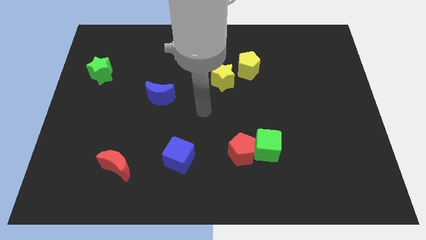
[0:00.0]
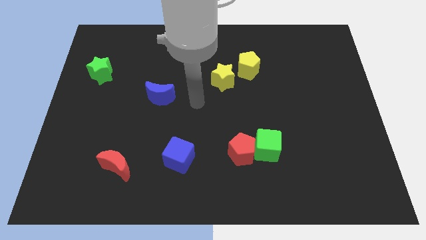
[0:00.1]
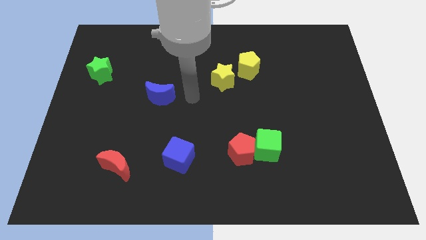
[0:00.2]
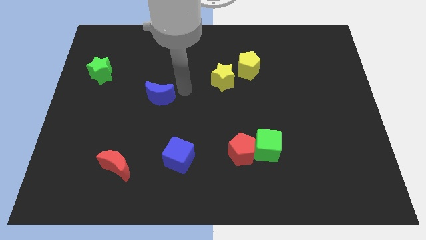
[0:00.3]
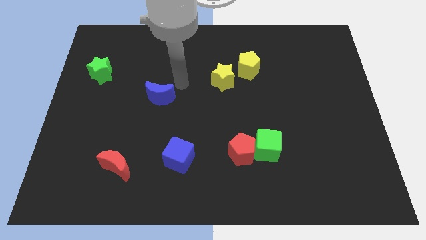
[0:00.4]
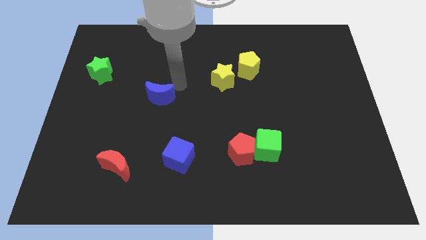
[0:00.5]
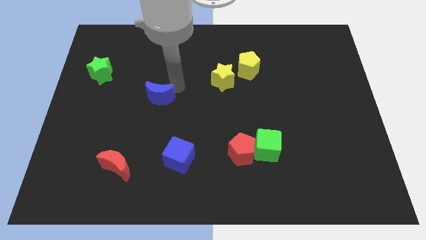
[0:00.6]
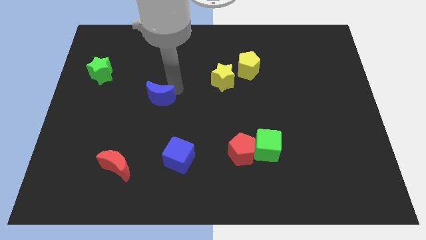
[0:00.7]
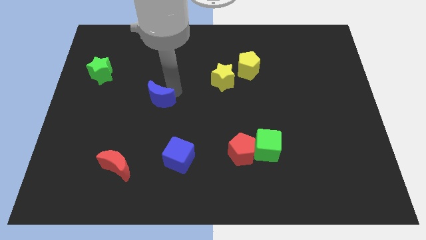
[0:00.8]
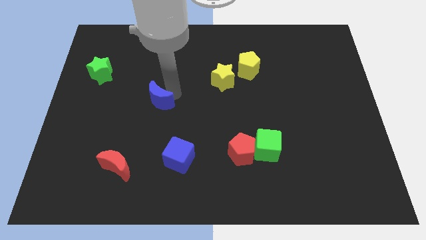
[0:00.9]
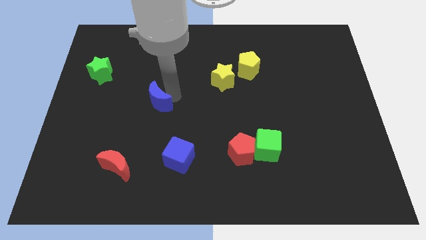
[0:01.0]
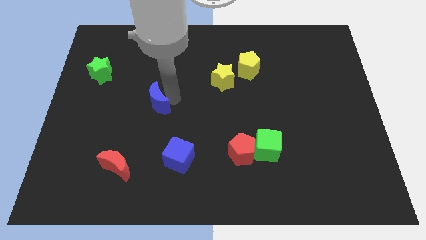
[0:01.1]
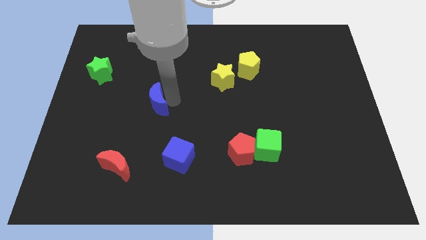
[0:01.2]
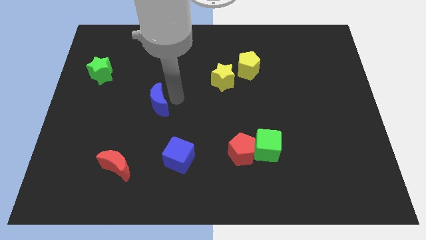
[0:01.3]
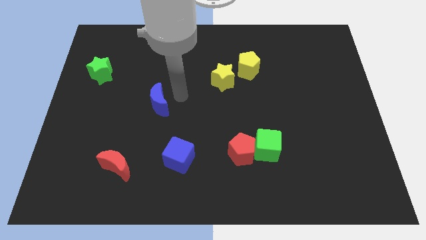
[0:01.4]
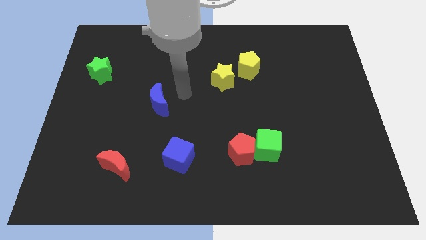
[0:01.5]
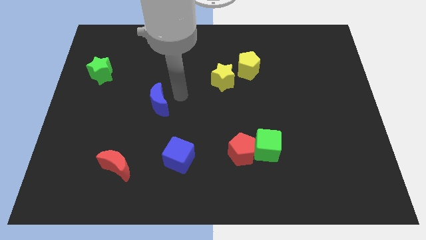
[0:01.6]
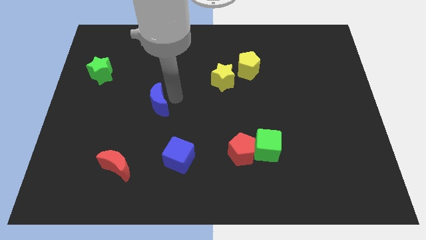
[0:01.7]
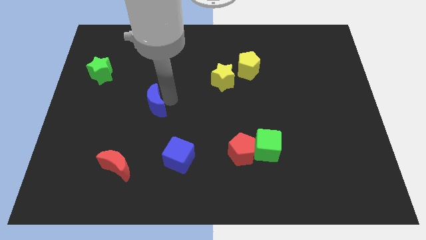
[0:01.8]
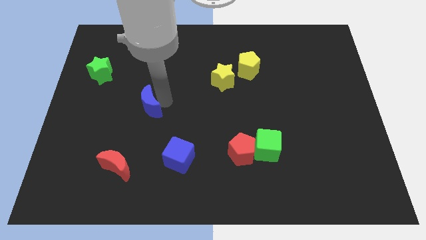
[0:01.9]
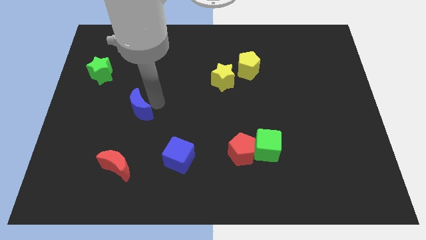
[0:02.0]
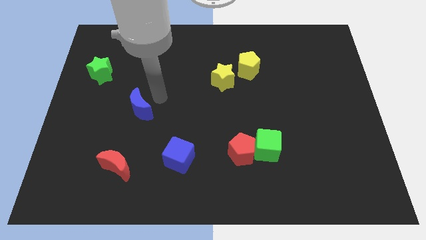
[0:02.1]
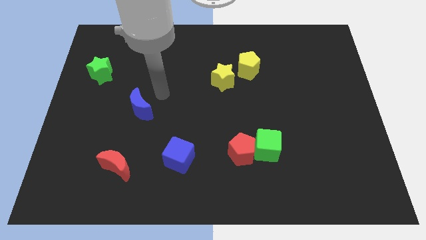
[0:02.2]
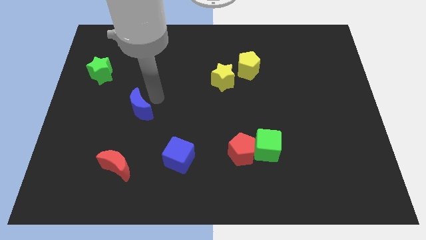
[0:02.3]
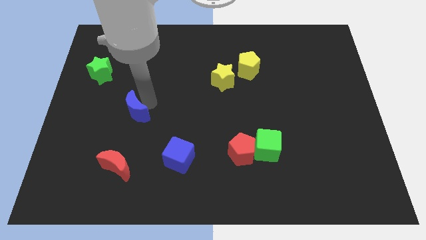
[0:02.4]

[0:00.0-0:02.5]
slide the blue moon slightly downwards and to the left

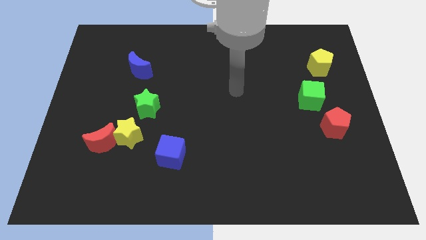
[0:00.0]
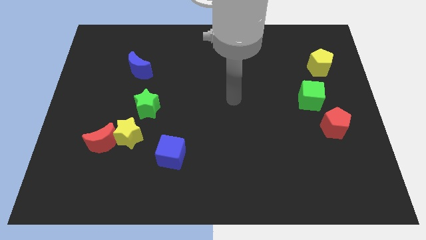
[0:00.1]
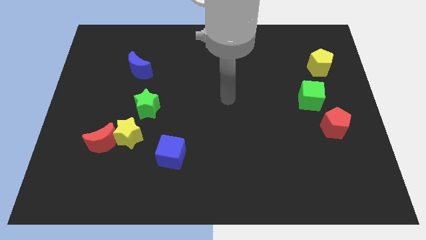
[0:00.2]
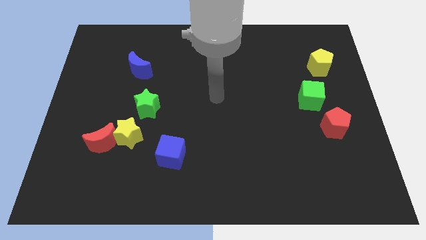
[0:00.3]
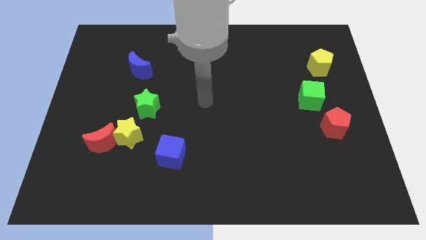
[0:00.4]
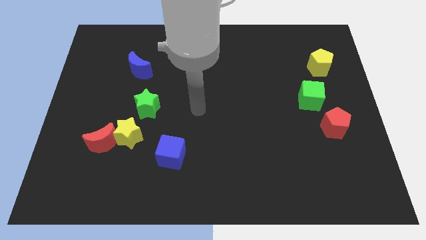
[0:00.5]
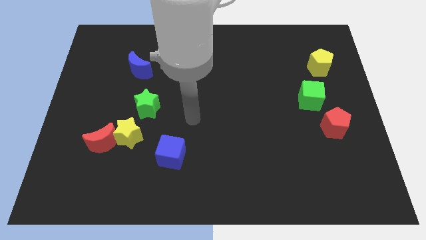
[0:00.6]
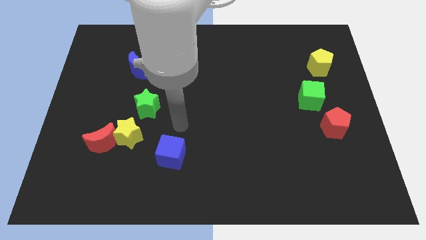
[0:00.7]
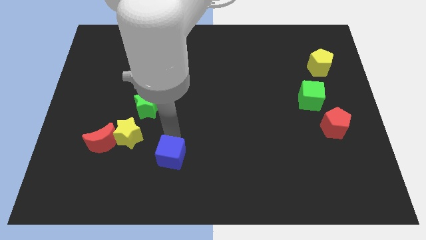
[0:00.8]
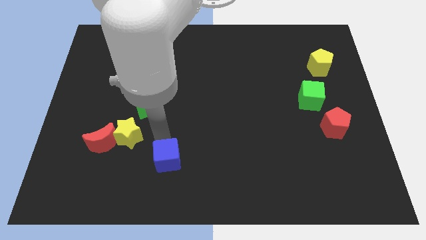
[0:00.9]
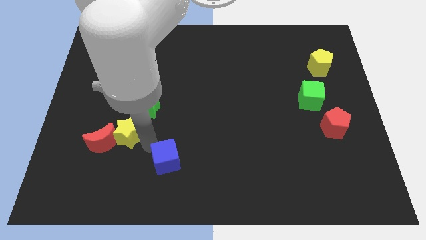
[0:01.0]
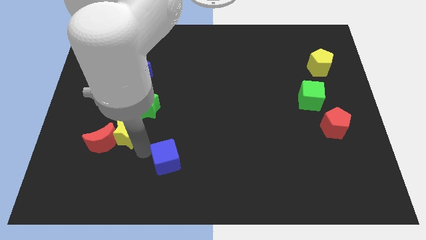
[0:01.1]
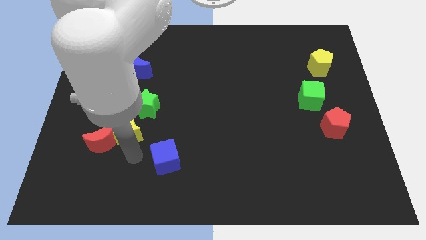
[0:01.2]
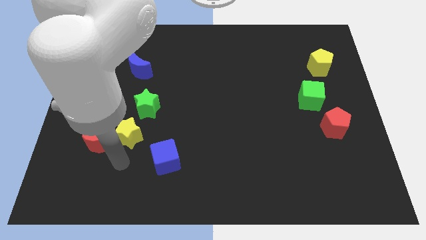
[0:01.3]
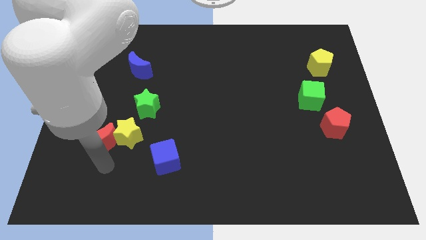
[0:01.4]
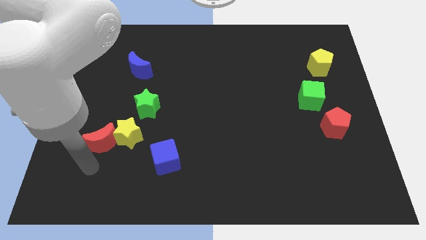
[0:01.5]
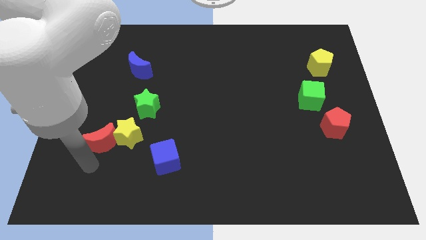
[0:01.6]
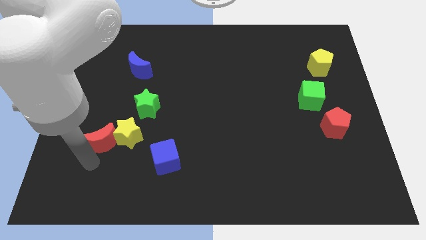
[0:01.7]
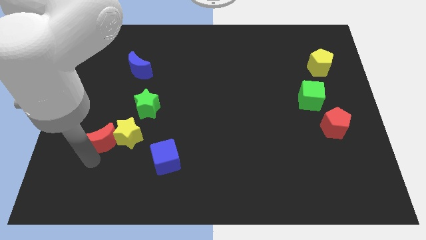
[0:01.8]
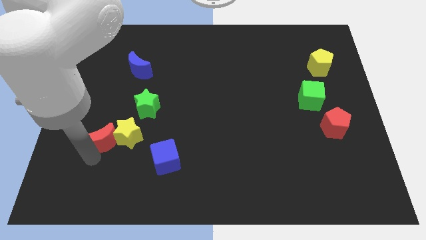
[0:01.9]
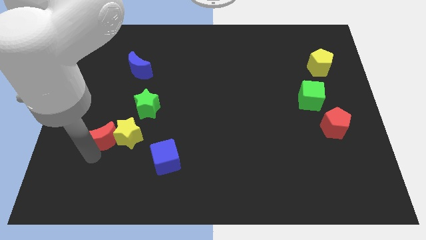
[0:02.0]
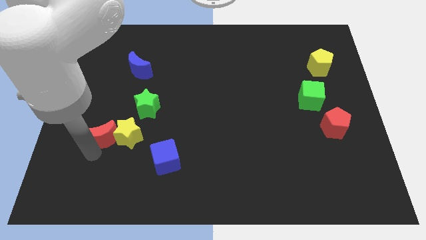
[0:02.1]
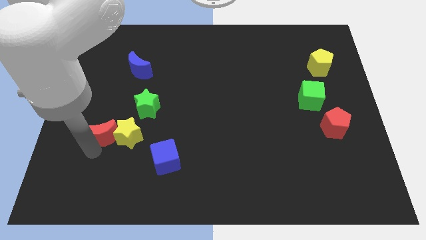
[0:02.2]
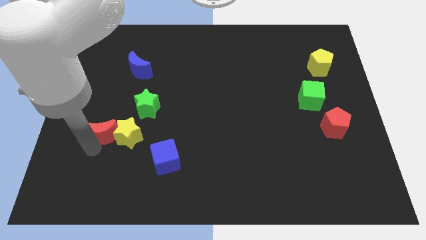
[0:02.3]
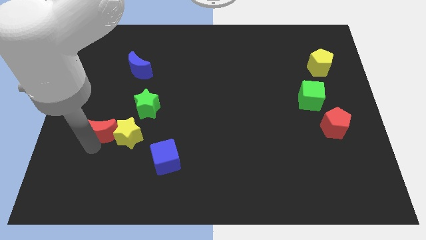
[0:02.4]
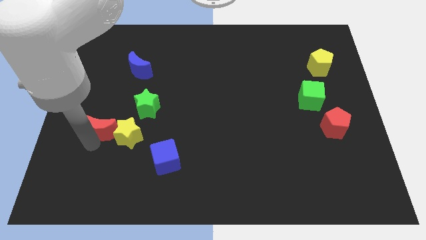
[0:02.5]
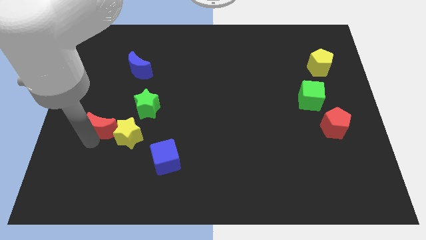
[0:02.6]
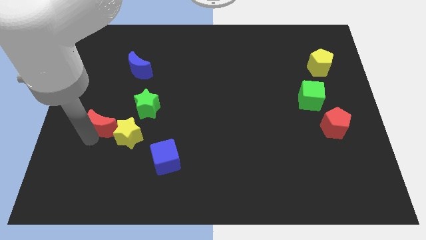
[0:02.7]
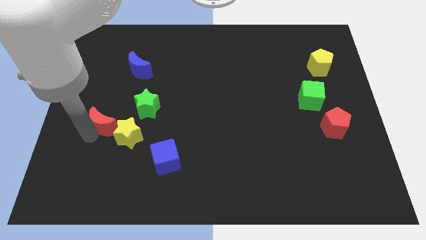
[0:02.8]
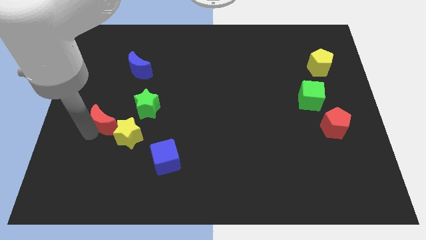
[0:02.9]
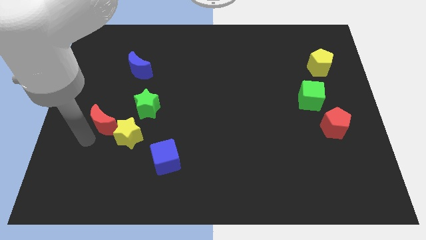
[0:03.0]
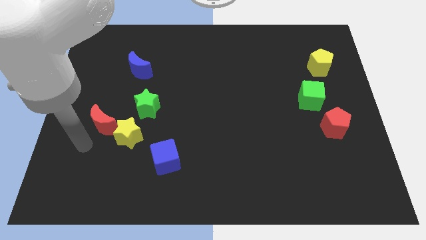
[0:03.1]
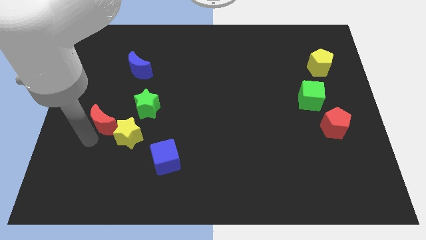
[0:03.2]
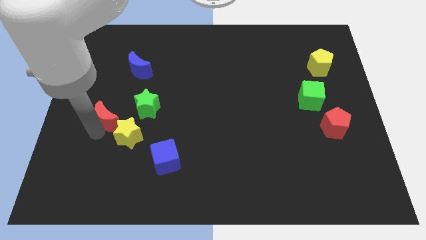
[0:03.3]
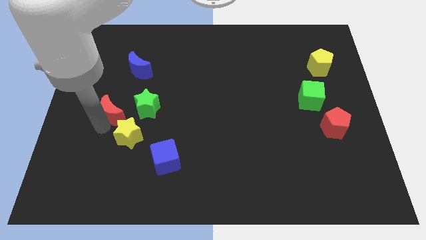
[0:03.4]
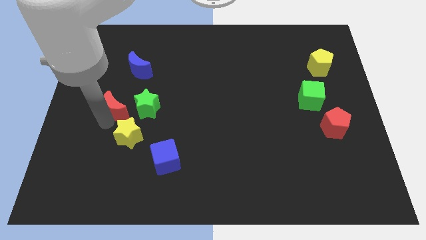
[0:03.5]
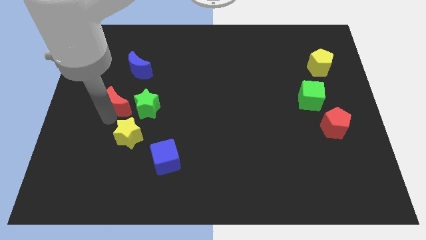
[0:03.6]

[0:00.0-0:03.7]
slide the red moon a little bit up and to the right diagonally

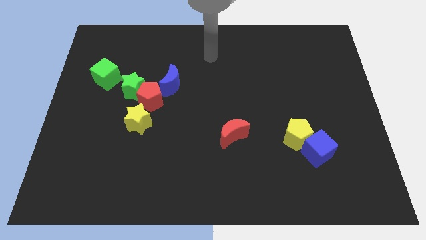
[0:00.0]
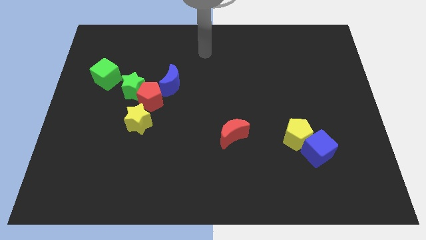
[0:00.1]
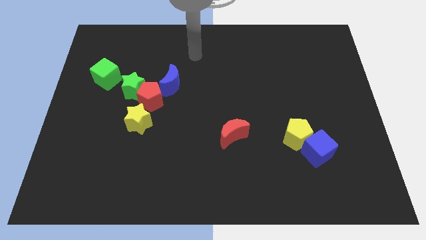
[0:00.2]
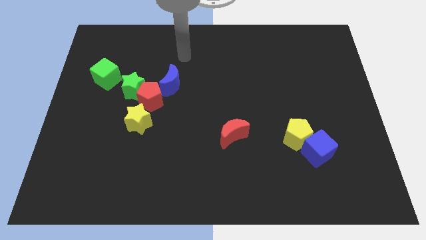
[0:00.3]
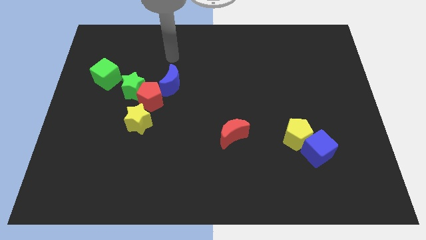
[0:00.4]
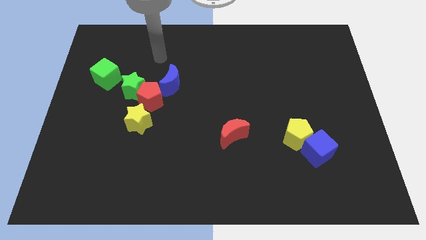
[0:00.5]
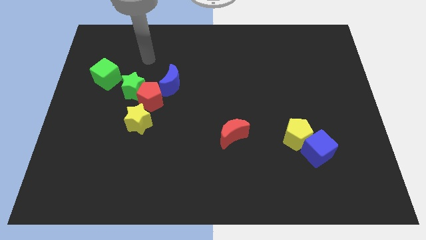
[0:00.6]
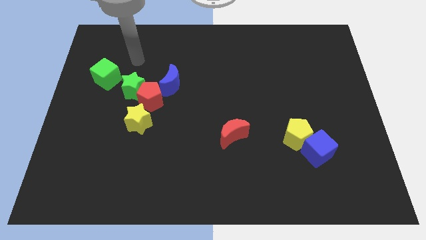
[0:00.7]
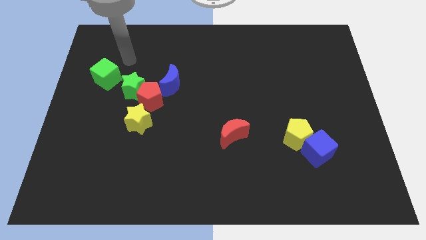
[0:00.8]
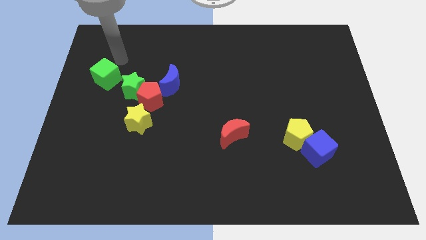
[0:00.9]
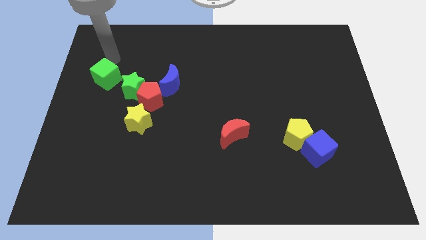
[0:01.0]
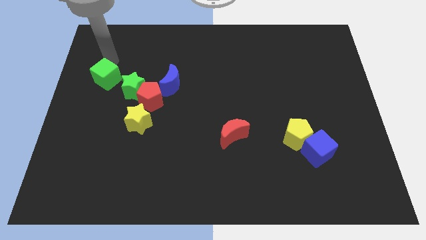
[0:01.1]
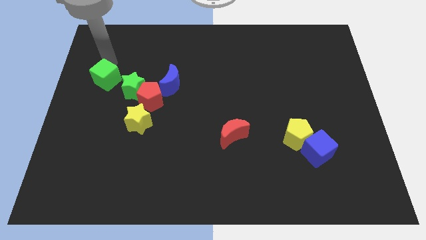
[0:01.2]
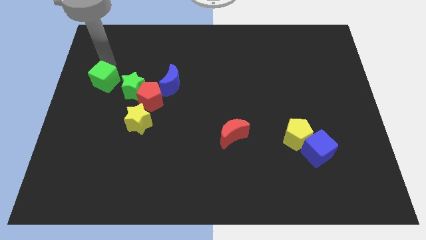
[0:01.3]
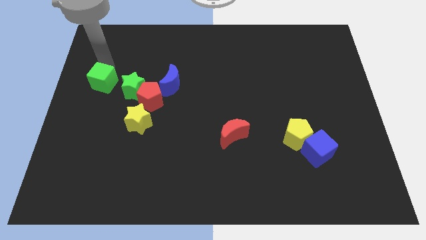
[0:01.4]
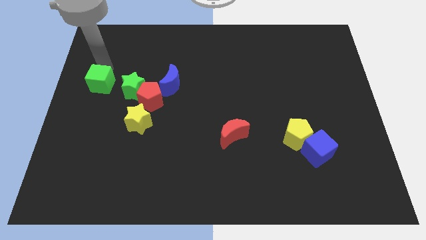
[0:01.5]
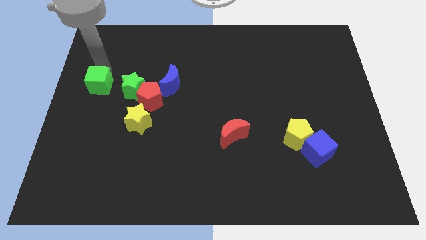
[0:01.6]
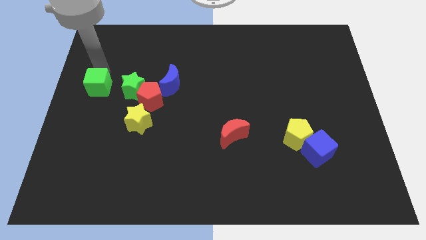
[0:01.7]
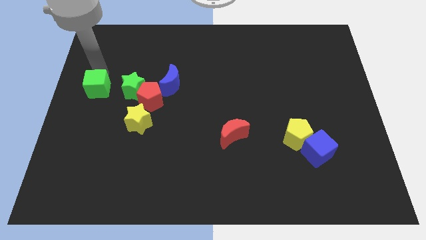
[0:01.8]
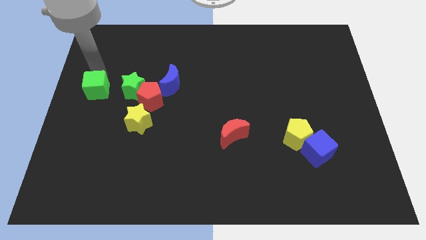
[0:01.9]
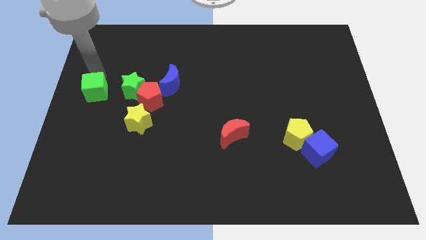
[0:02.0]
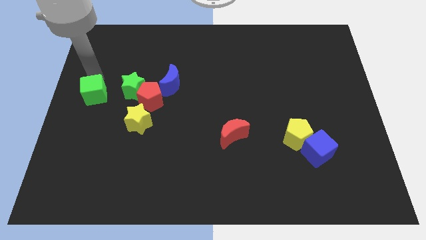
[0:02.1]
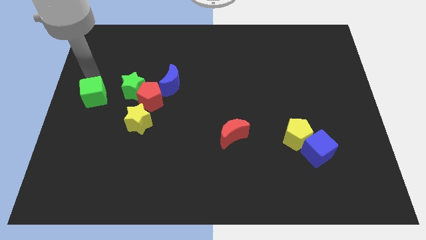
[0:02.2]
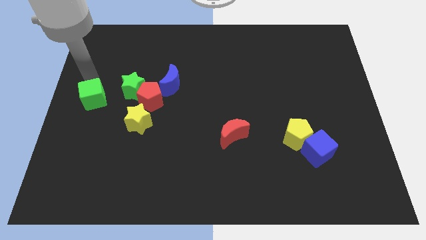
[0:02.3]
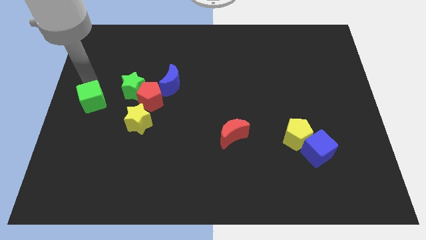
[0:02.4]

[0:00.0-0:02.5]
slightly push the green cube downwards
